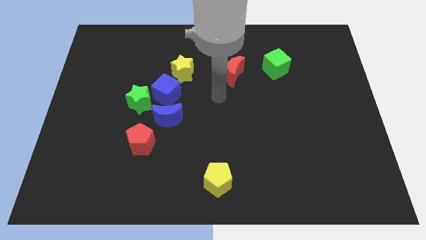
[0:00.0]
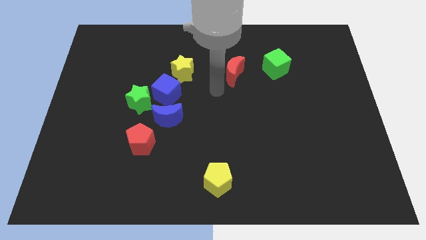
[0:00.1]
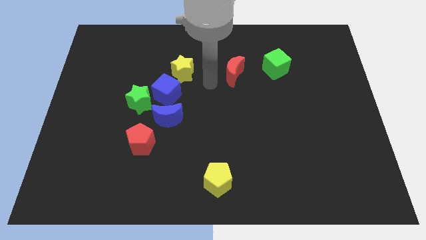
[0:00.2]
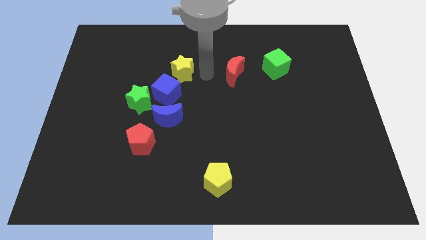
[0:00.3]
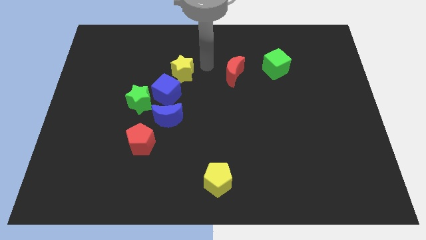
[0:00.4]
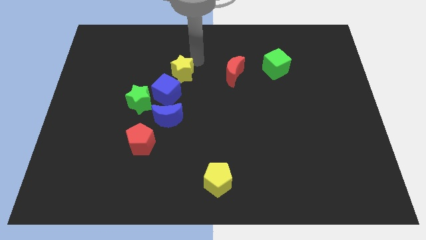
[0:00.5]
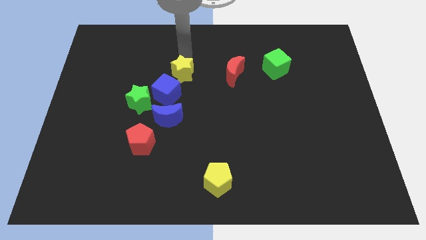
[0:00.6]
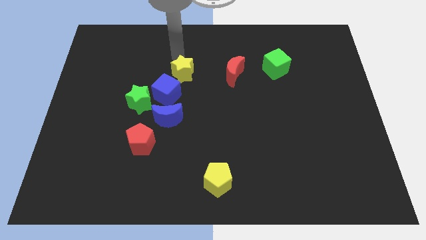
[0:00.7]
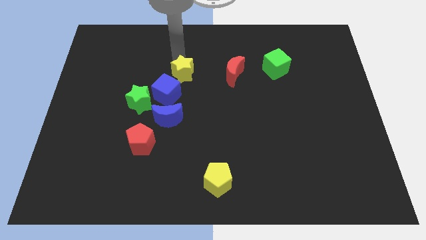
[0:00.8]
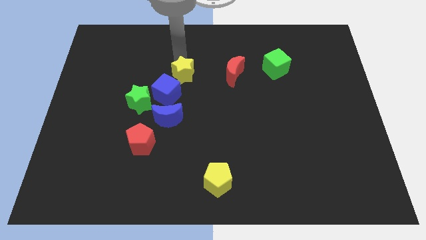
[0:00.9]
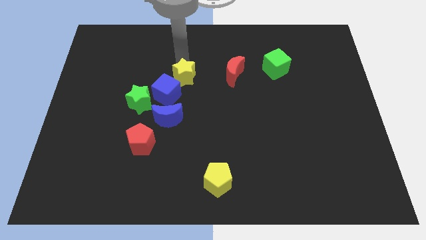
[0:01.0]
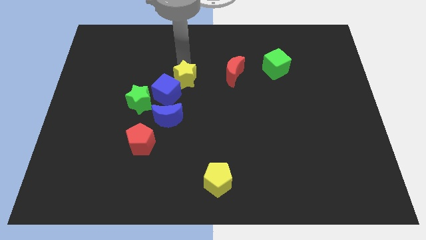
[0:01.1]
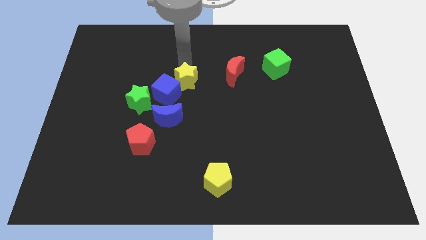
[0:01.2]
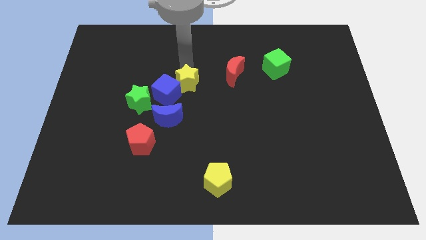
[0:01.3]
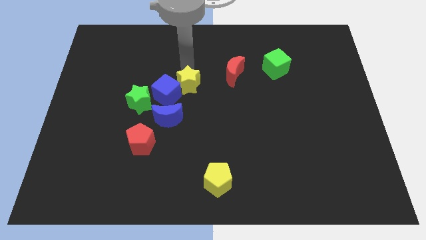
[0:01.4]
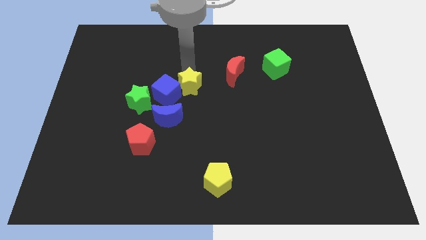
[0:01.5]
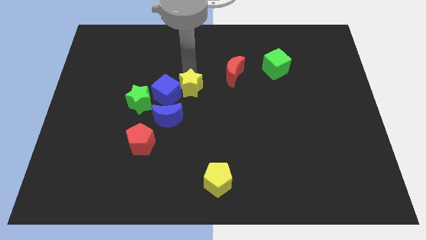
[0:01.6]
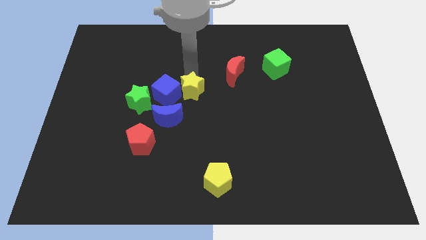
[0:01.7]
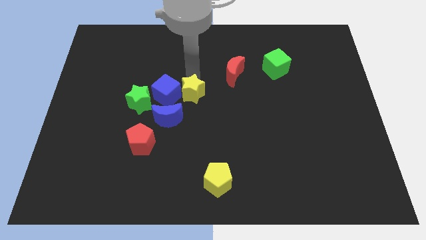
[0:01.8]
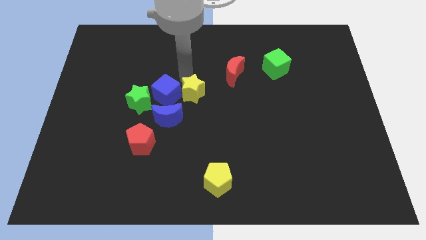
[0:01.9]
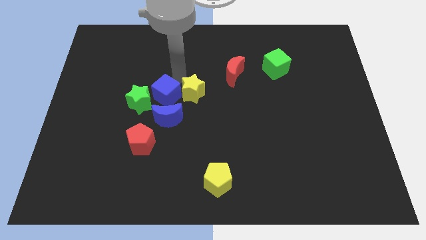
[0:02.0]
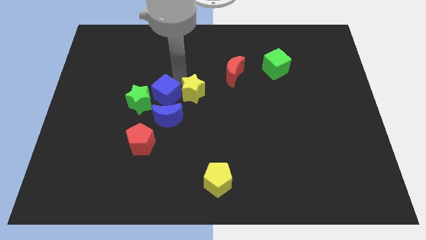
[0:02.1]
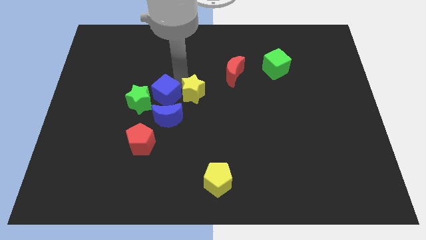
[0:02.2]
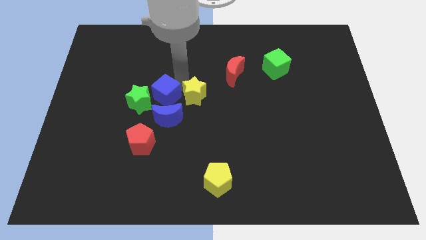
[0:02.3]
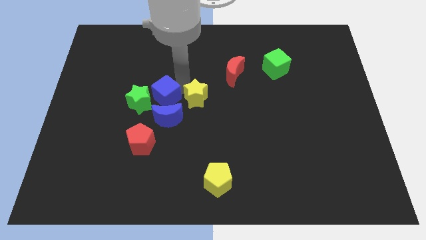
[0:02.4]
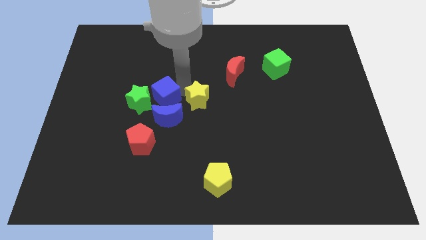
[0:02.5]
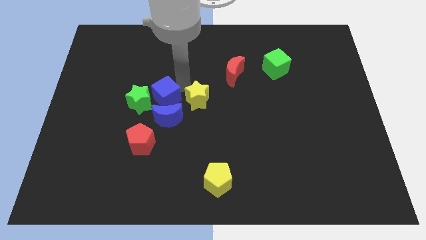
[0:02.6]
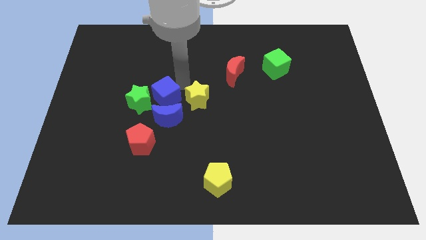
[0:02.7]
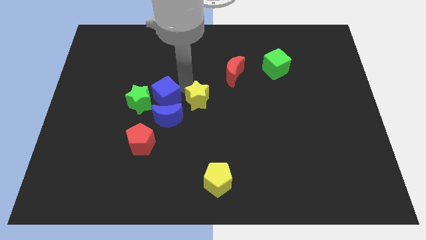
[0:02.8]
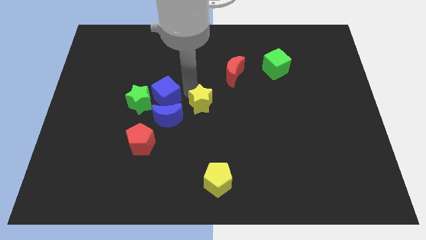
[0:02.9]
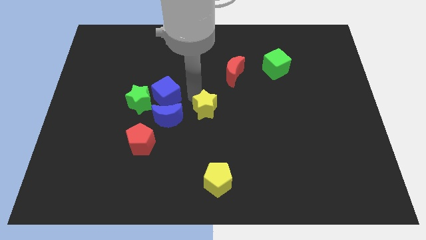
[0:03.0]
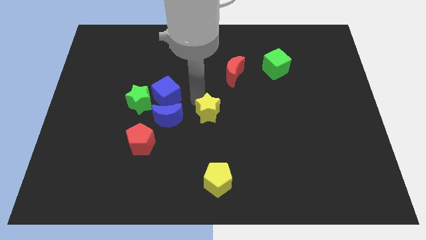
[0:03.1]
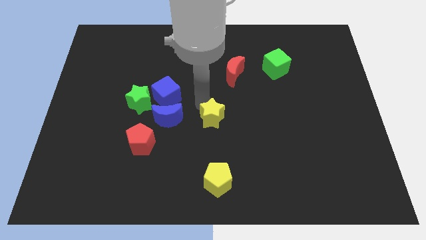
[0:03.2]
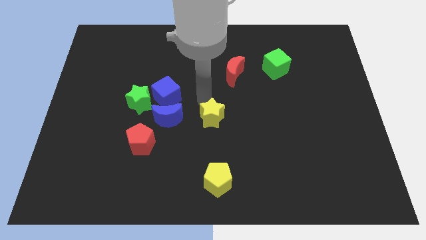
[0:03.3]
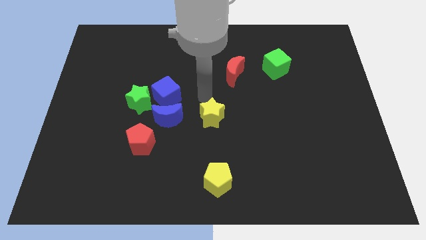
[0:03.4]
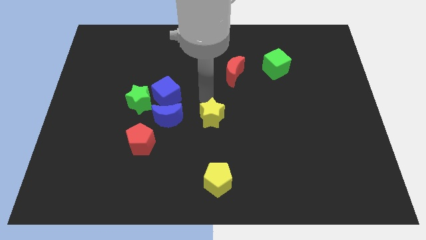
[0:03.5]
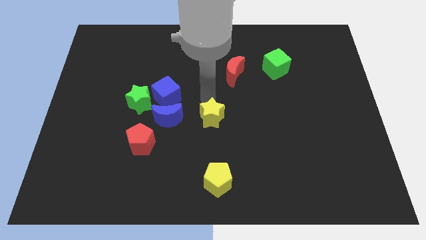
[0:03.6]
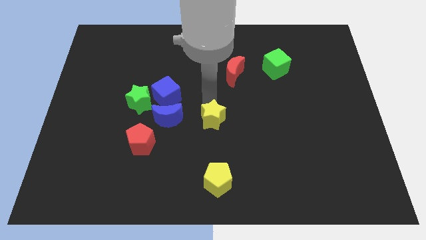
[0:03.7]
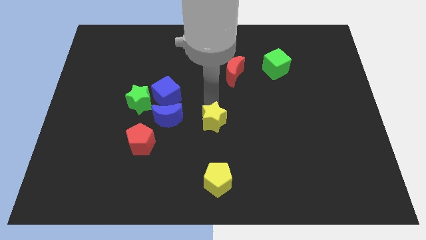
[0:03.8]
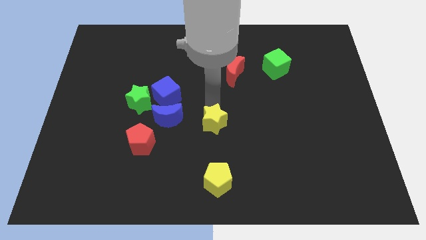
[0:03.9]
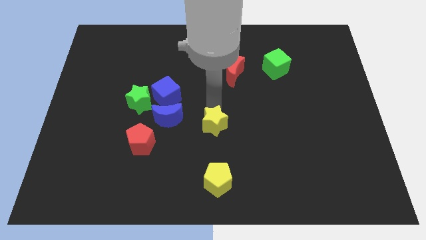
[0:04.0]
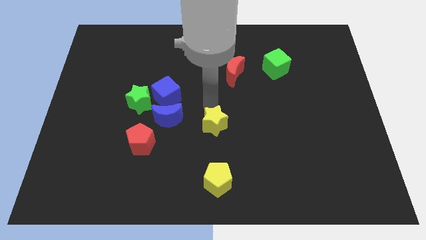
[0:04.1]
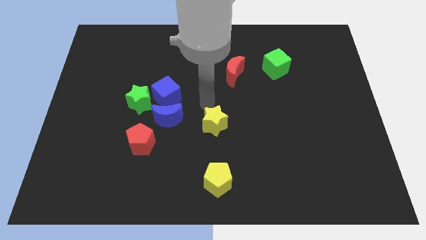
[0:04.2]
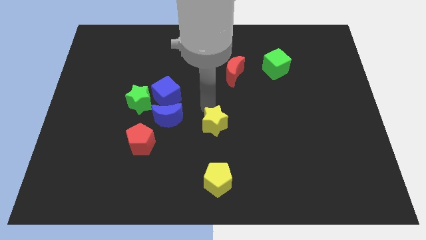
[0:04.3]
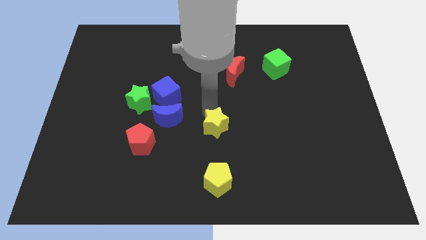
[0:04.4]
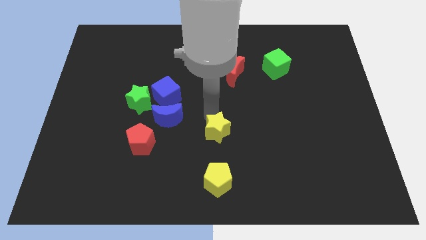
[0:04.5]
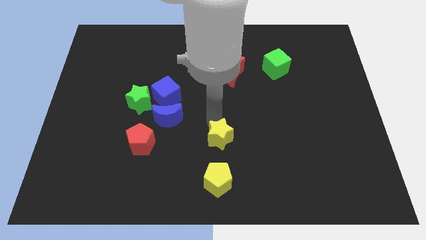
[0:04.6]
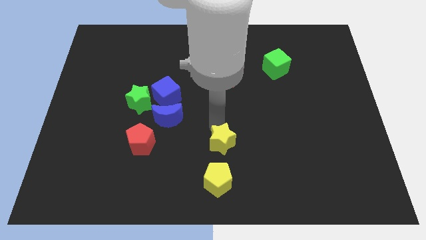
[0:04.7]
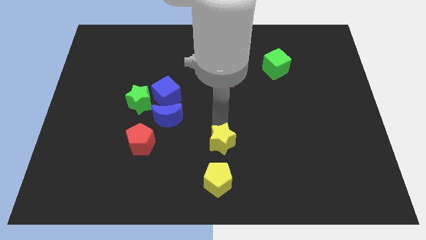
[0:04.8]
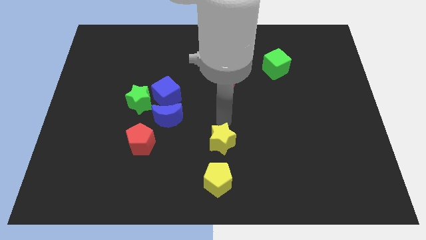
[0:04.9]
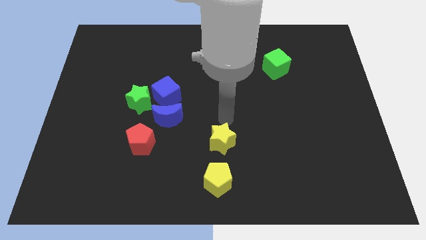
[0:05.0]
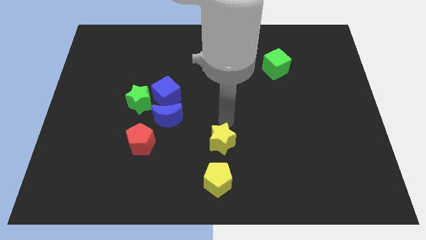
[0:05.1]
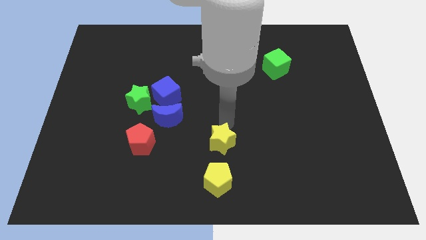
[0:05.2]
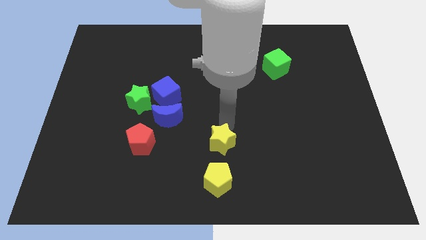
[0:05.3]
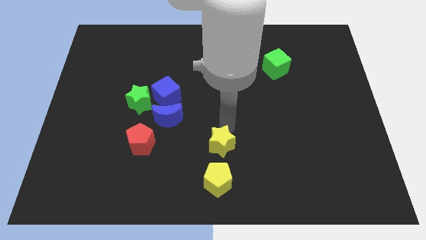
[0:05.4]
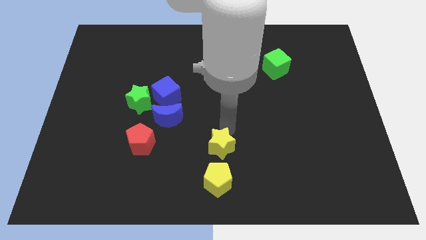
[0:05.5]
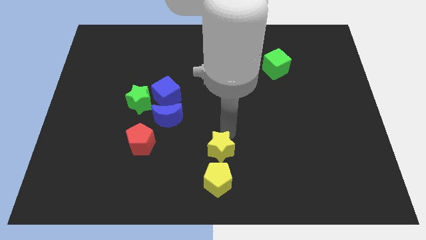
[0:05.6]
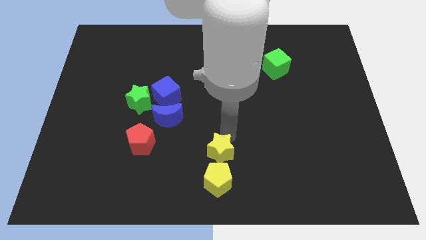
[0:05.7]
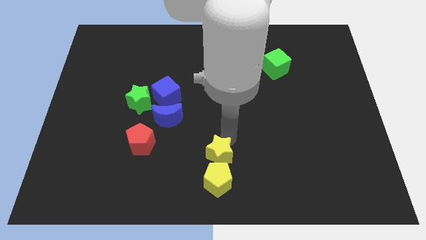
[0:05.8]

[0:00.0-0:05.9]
put the yellow star towards the yellow pentagon

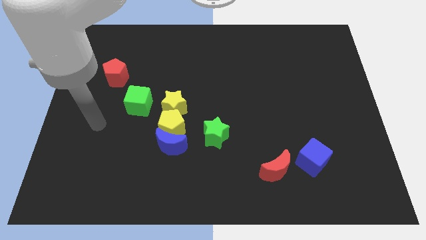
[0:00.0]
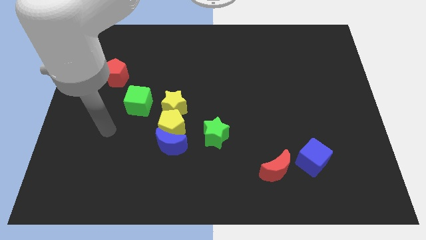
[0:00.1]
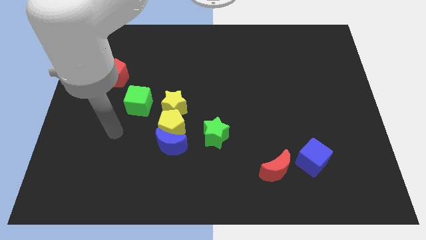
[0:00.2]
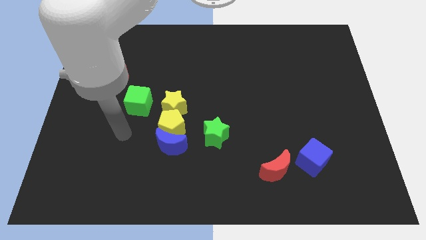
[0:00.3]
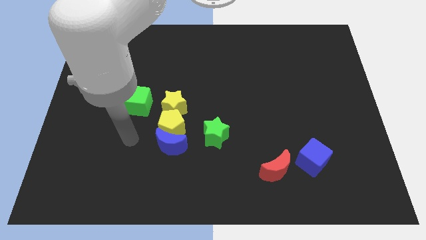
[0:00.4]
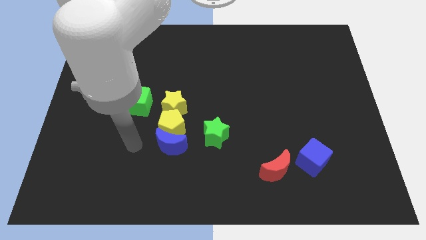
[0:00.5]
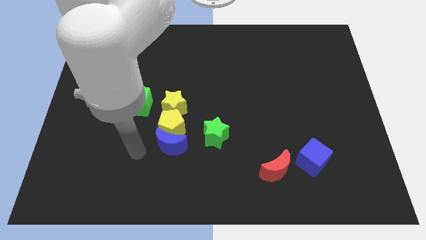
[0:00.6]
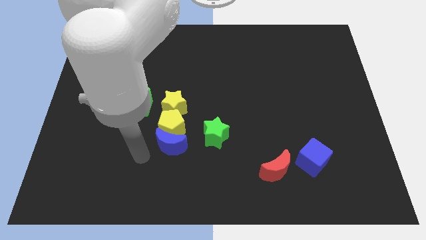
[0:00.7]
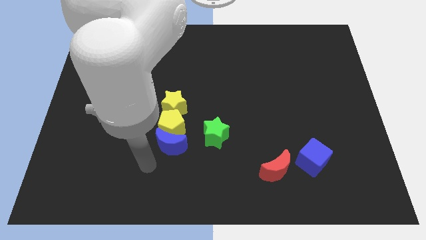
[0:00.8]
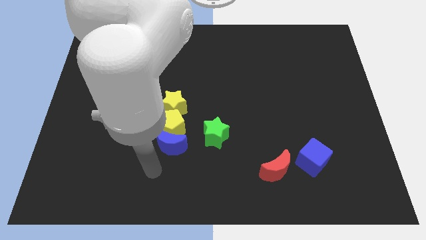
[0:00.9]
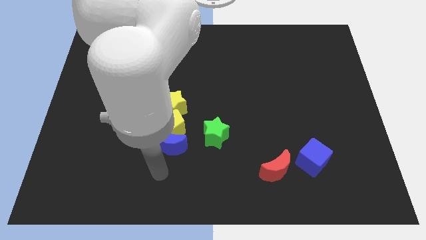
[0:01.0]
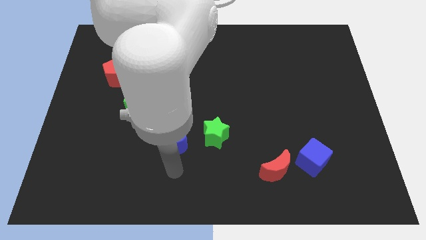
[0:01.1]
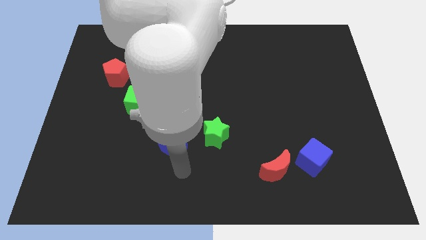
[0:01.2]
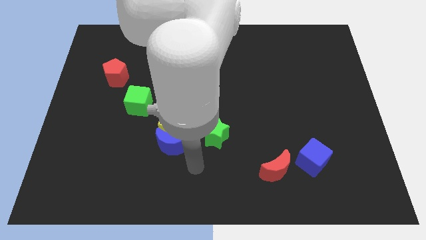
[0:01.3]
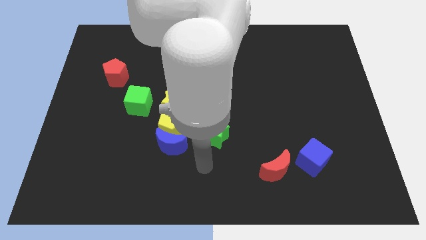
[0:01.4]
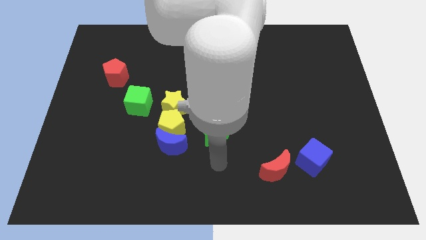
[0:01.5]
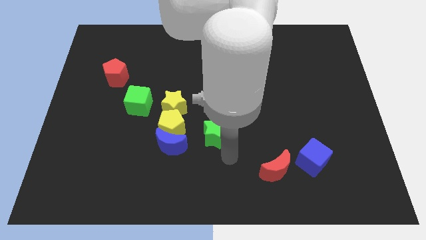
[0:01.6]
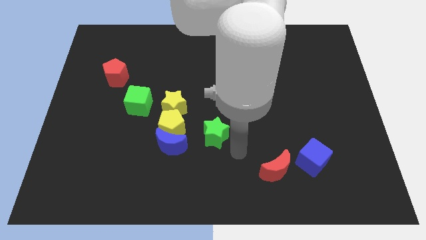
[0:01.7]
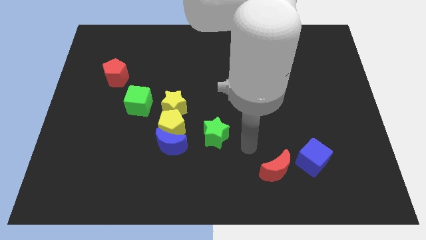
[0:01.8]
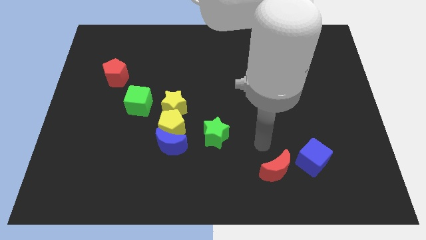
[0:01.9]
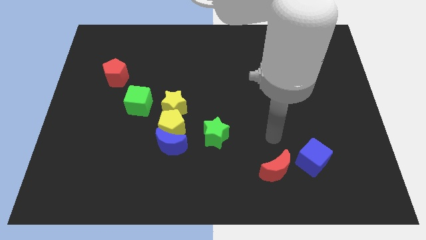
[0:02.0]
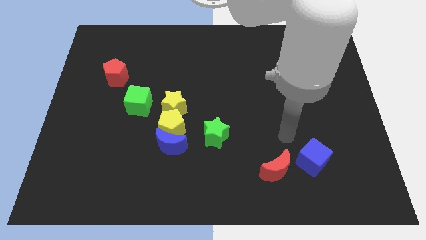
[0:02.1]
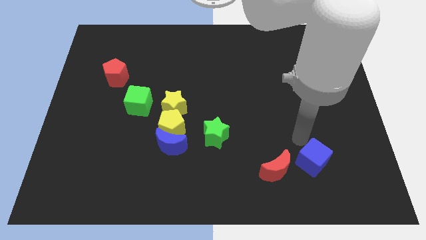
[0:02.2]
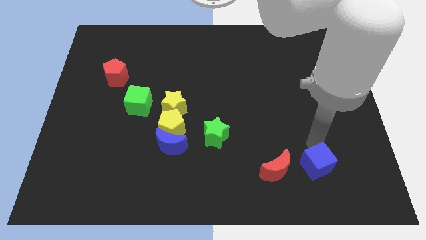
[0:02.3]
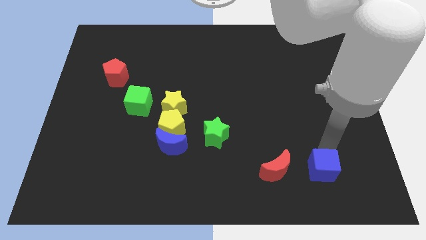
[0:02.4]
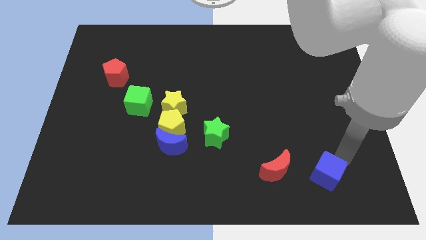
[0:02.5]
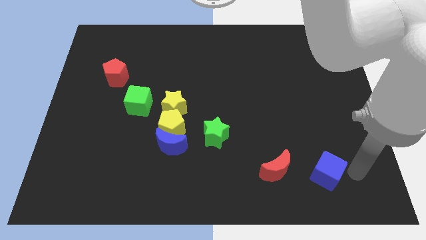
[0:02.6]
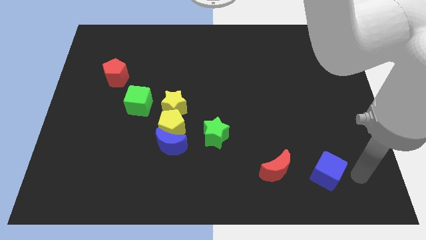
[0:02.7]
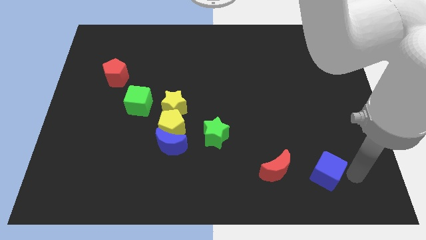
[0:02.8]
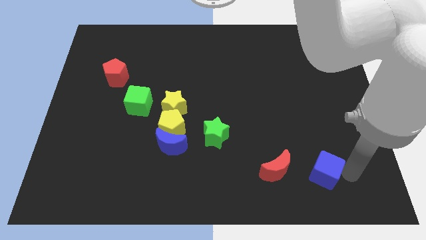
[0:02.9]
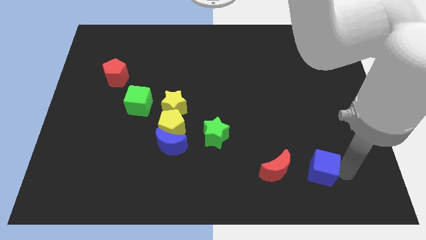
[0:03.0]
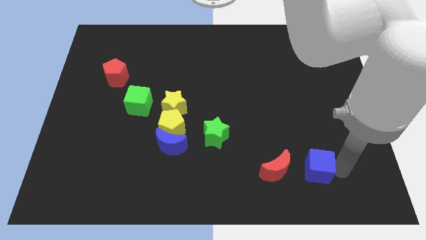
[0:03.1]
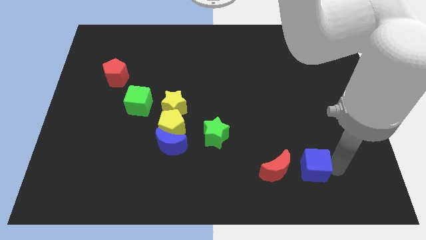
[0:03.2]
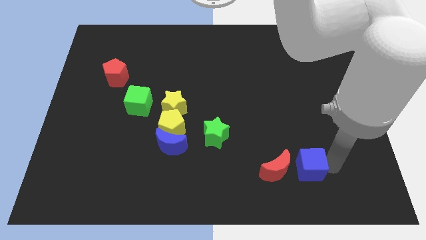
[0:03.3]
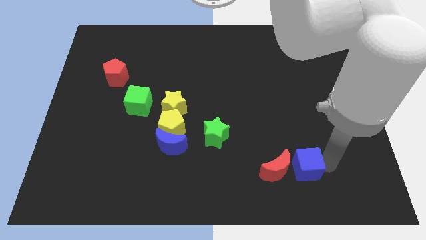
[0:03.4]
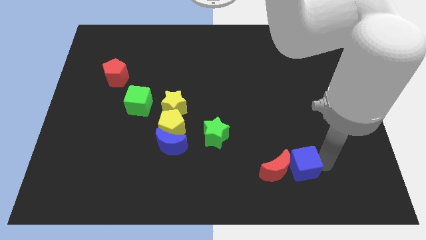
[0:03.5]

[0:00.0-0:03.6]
push the blue cube next to the red moon
